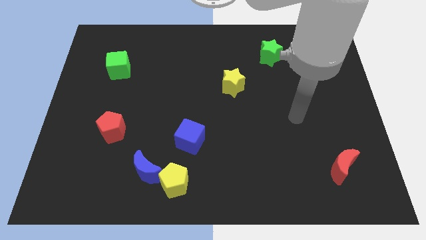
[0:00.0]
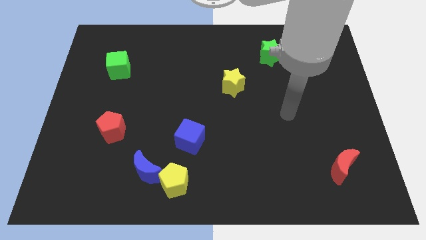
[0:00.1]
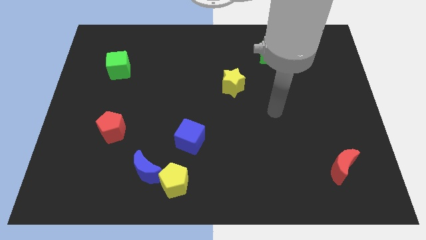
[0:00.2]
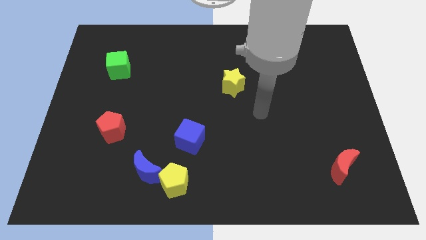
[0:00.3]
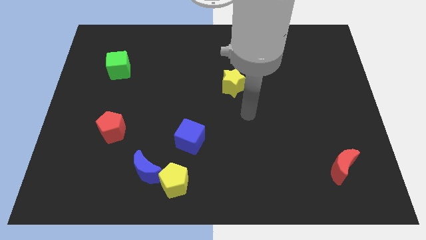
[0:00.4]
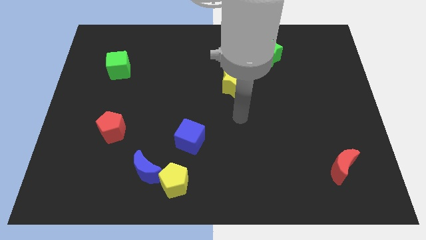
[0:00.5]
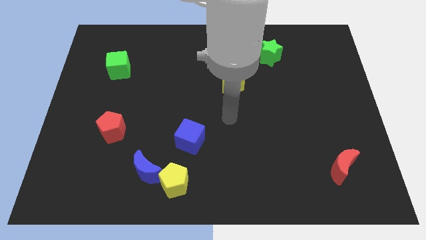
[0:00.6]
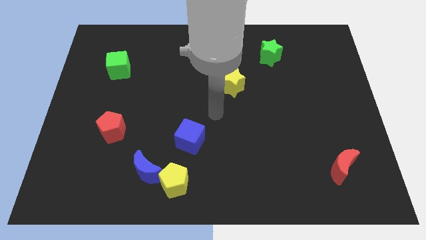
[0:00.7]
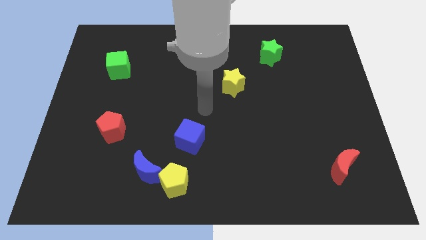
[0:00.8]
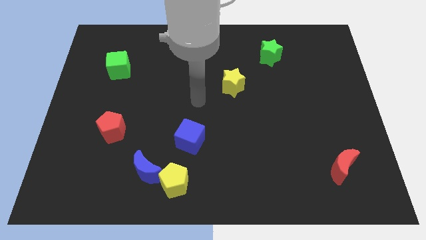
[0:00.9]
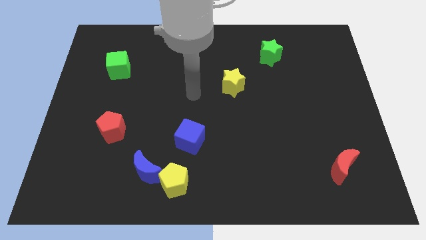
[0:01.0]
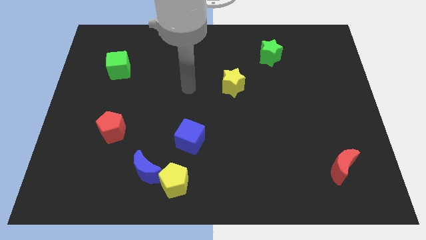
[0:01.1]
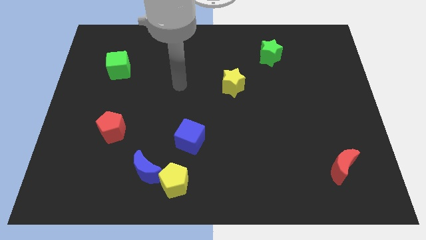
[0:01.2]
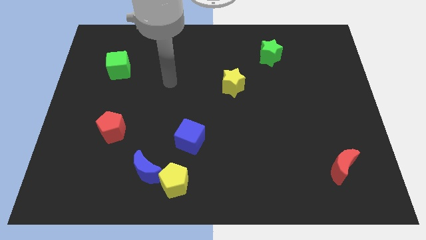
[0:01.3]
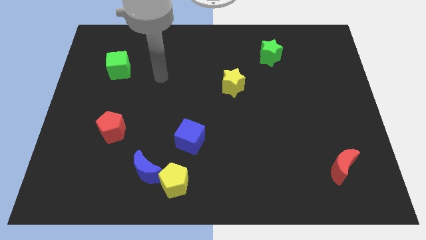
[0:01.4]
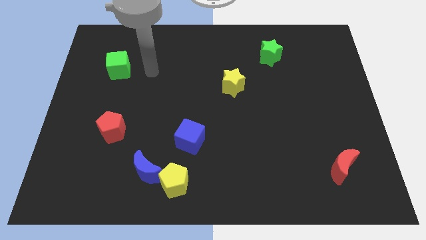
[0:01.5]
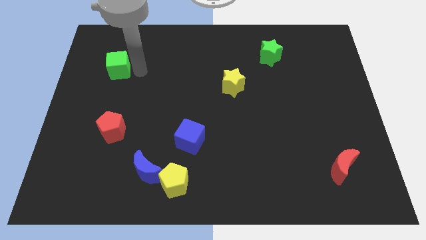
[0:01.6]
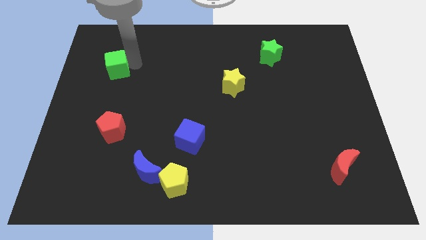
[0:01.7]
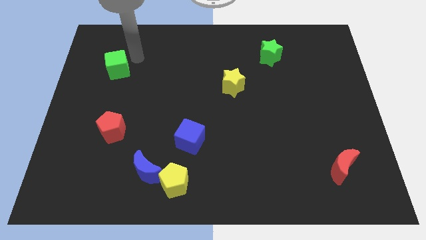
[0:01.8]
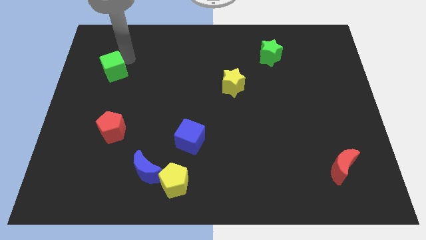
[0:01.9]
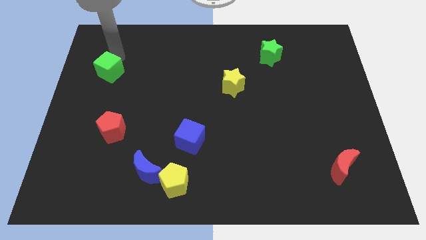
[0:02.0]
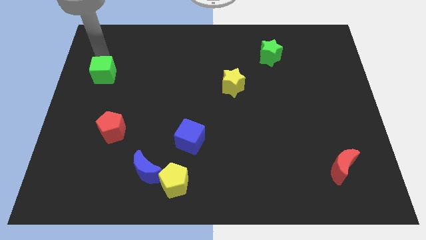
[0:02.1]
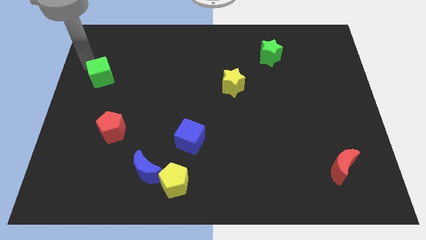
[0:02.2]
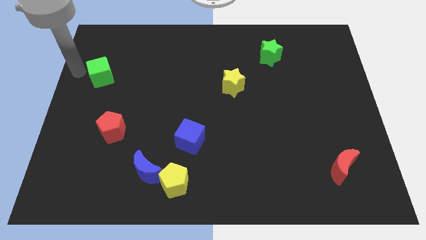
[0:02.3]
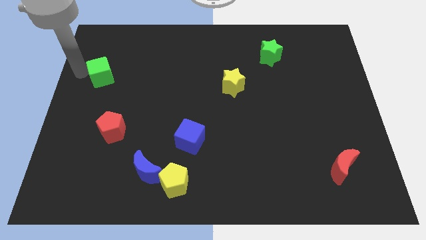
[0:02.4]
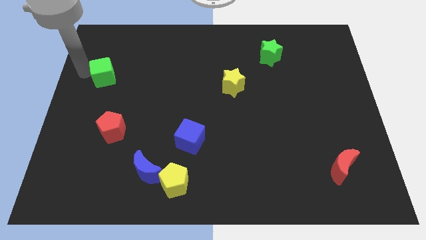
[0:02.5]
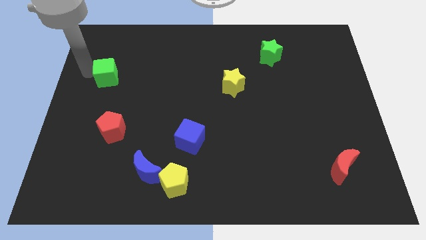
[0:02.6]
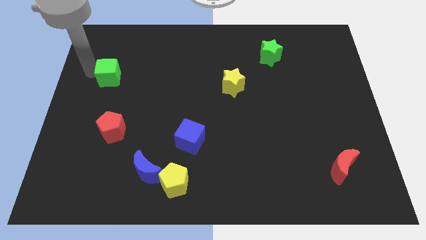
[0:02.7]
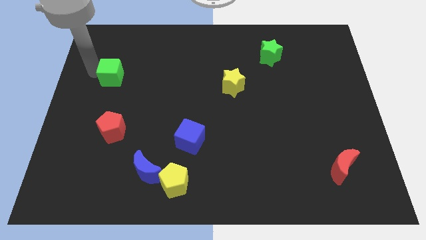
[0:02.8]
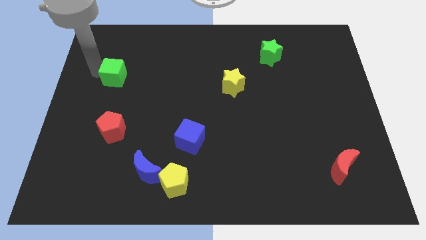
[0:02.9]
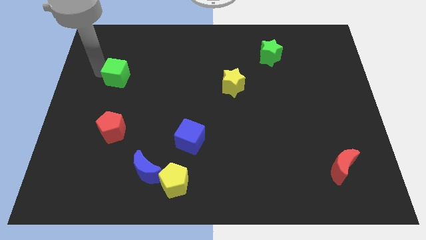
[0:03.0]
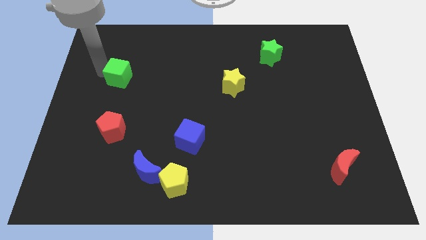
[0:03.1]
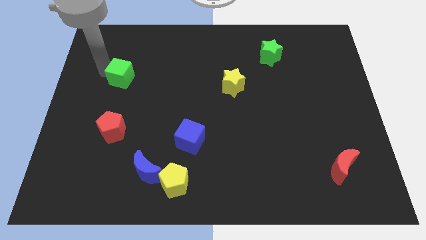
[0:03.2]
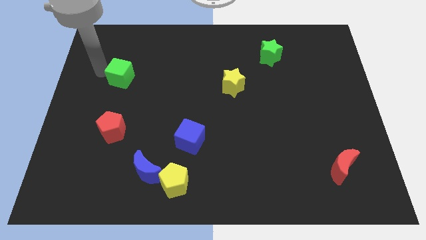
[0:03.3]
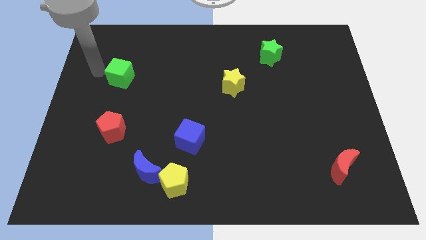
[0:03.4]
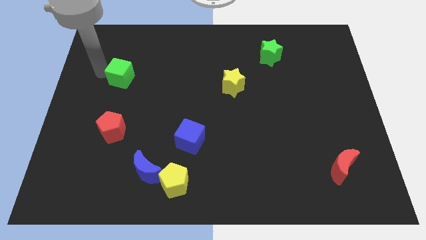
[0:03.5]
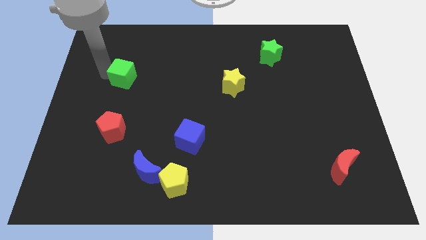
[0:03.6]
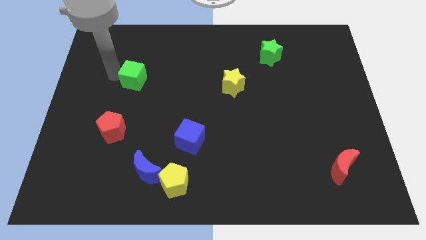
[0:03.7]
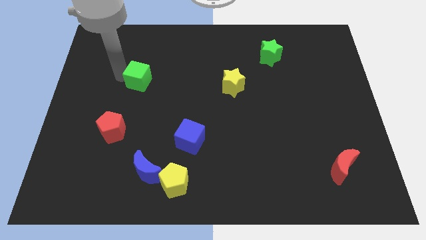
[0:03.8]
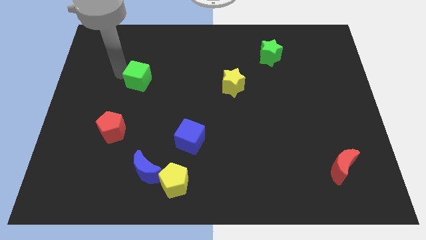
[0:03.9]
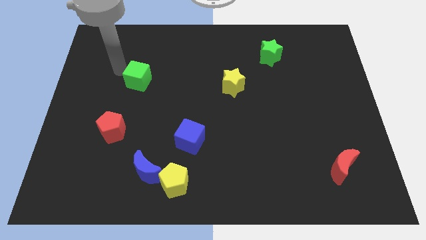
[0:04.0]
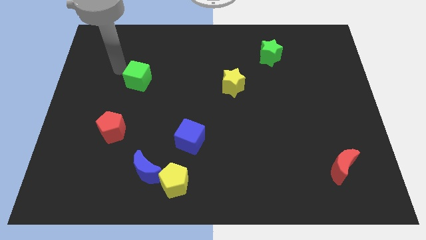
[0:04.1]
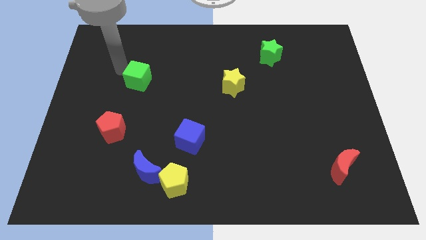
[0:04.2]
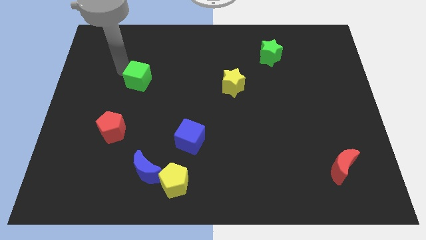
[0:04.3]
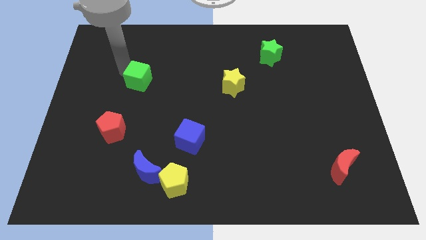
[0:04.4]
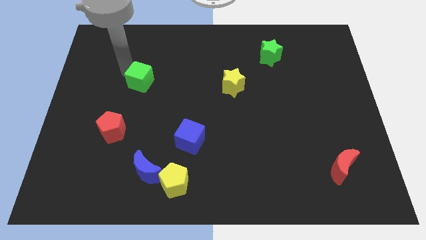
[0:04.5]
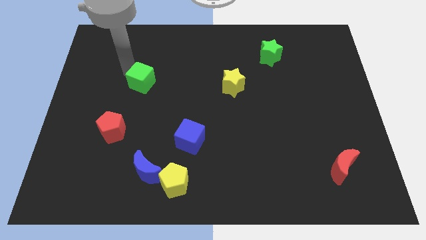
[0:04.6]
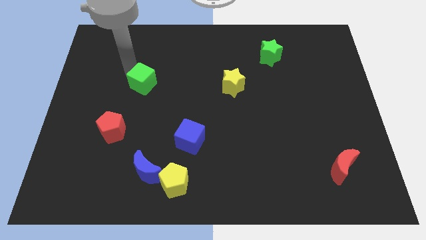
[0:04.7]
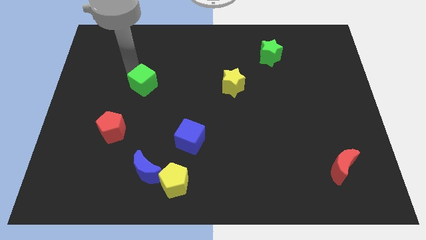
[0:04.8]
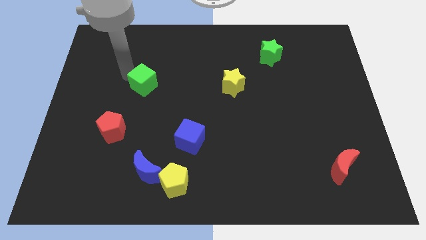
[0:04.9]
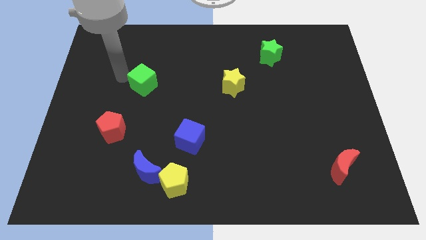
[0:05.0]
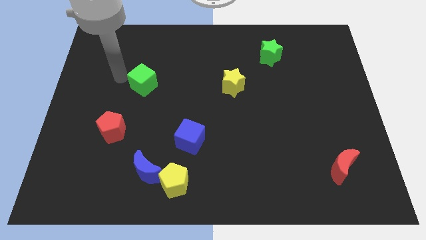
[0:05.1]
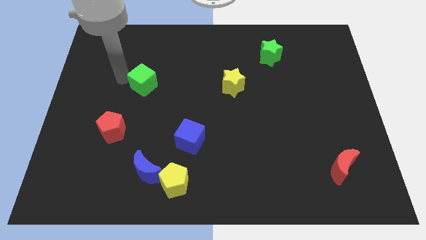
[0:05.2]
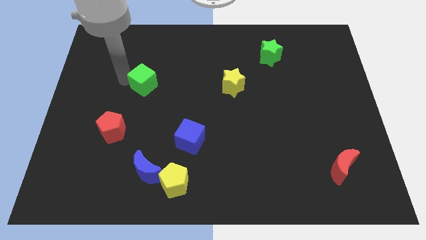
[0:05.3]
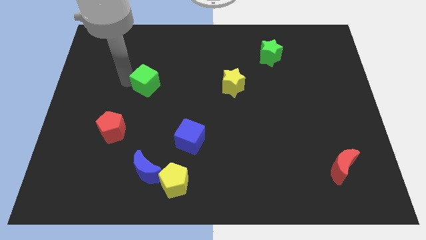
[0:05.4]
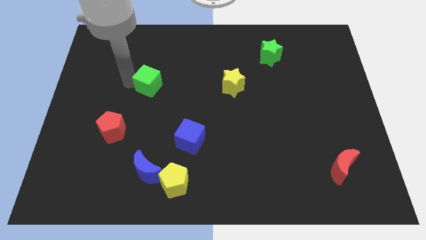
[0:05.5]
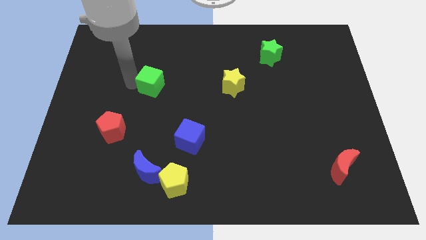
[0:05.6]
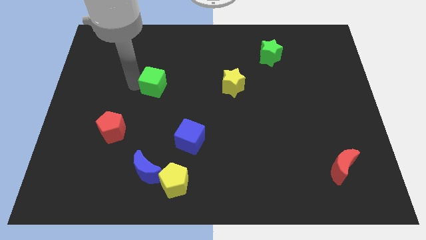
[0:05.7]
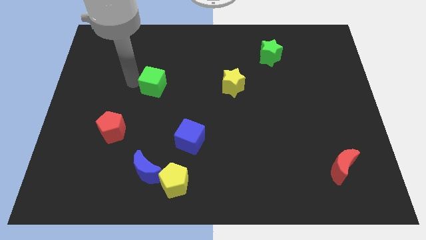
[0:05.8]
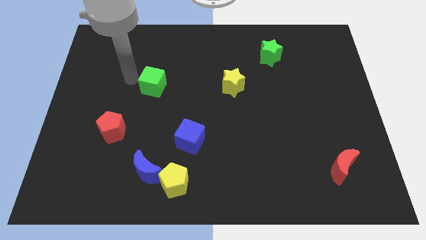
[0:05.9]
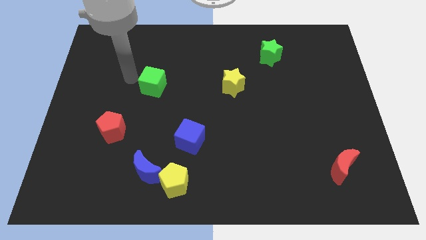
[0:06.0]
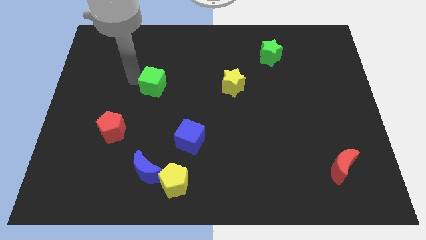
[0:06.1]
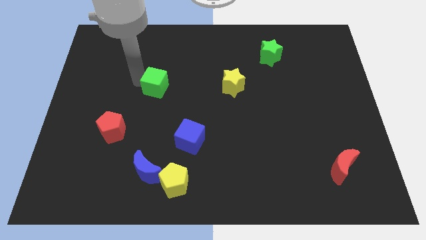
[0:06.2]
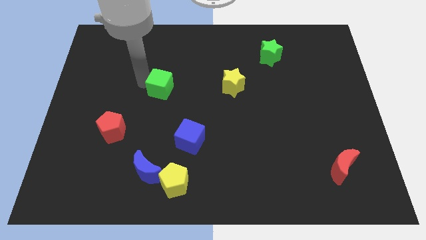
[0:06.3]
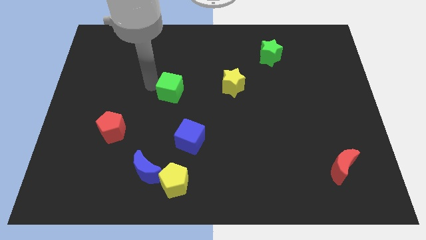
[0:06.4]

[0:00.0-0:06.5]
put the green cube to the center

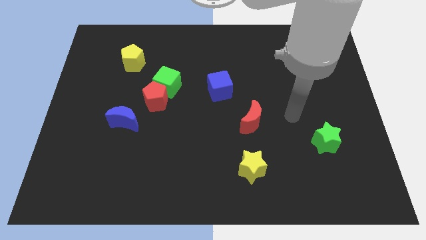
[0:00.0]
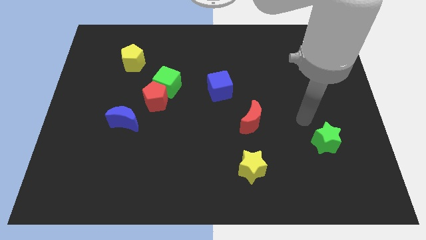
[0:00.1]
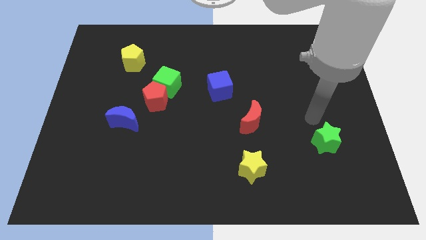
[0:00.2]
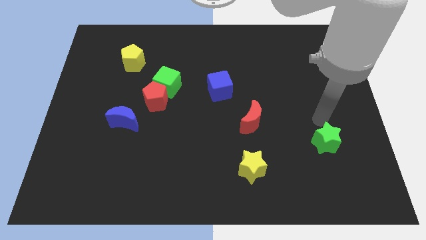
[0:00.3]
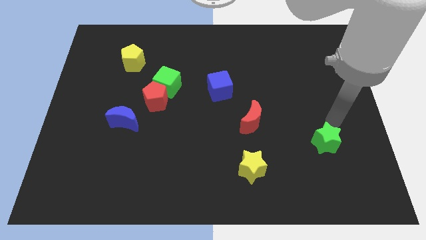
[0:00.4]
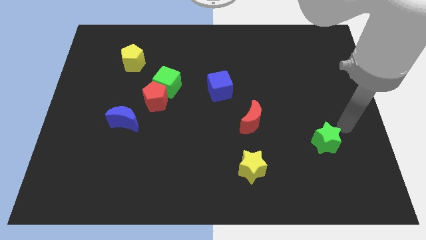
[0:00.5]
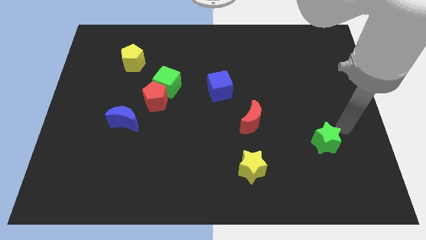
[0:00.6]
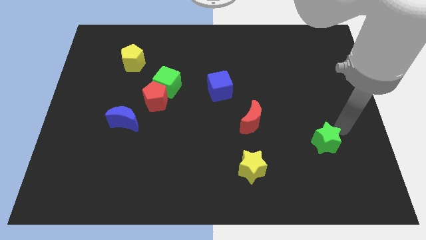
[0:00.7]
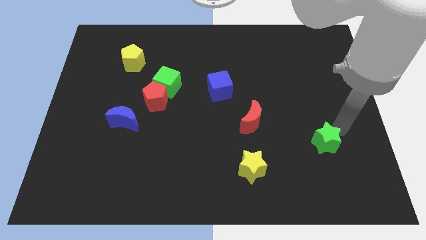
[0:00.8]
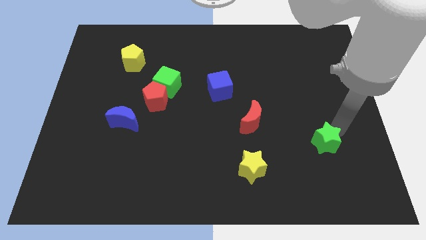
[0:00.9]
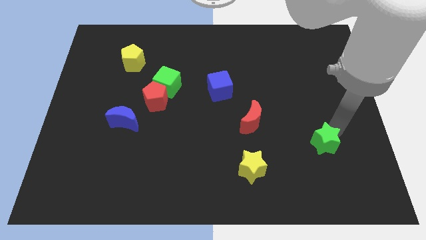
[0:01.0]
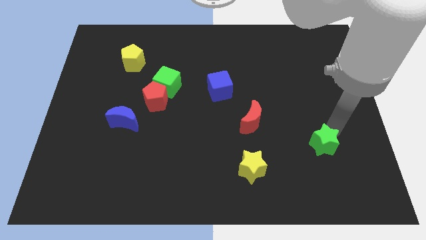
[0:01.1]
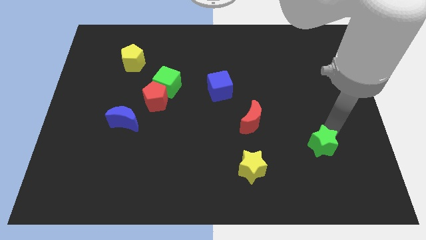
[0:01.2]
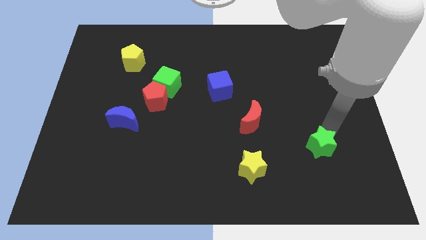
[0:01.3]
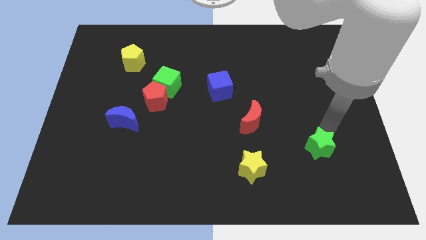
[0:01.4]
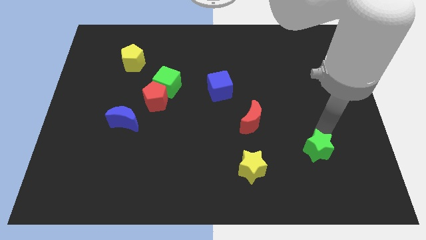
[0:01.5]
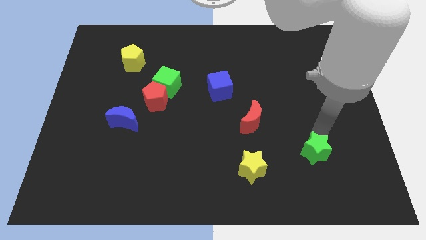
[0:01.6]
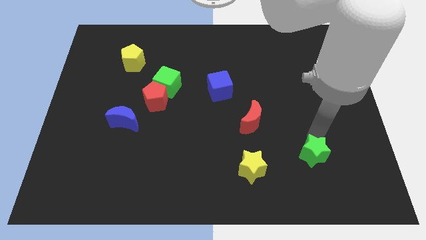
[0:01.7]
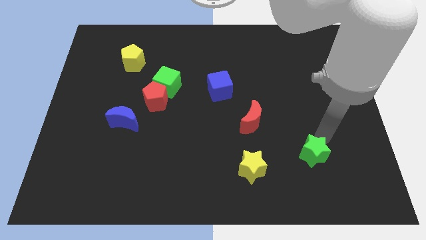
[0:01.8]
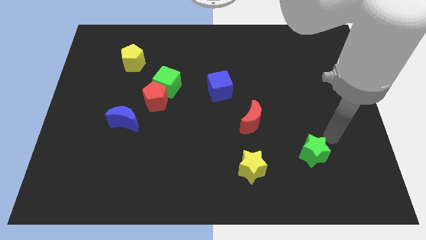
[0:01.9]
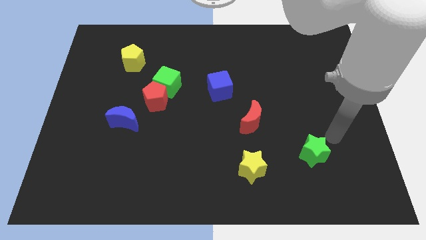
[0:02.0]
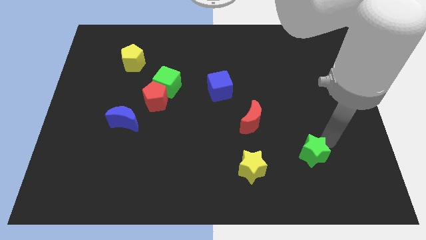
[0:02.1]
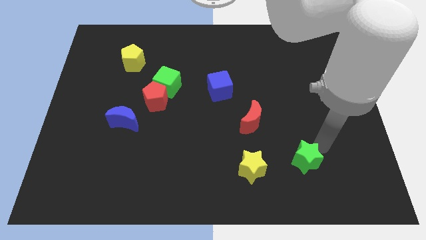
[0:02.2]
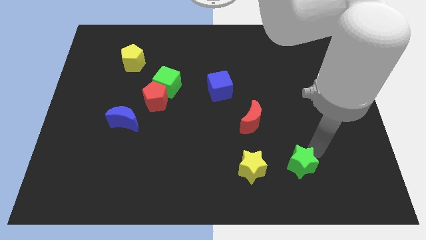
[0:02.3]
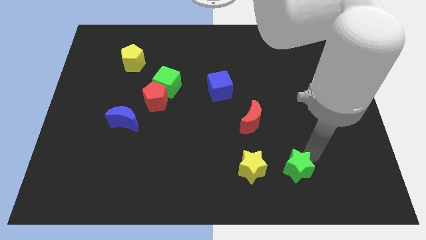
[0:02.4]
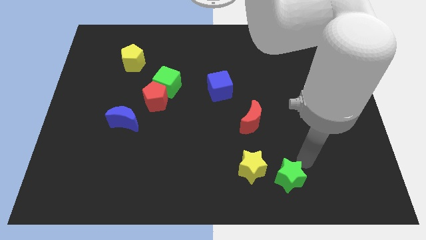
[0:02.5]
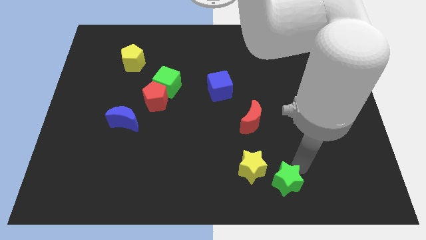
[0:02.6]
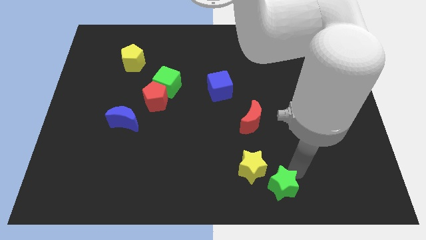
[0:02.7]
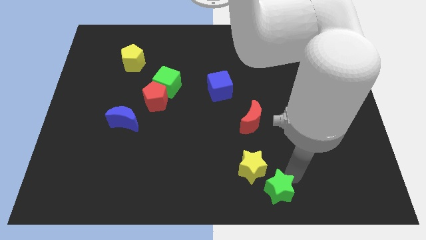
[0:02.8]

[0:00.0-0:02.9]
slide the green star to the bottom side
